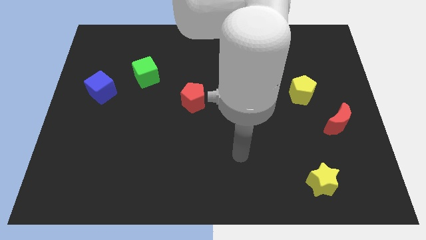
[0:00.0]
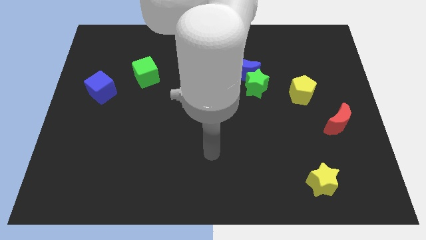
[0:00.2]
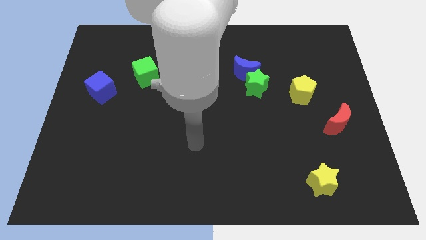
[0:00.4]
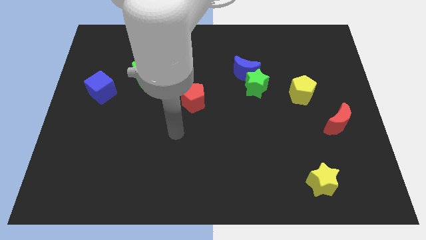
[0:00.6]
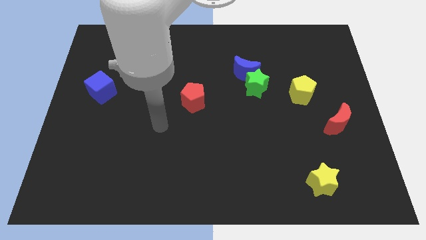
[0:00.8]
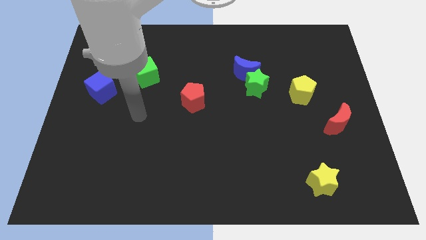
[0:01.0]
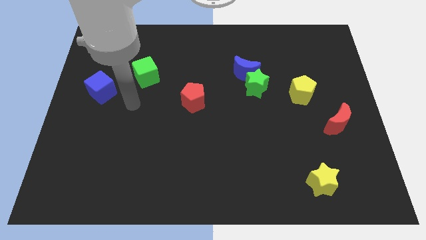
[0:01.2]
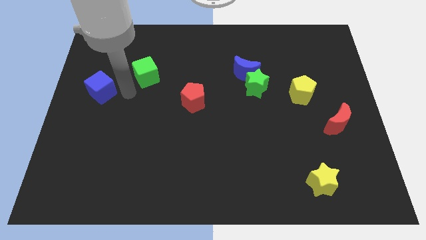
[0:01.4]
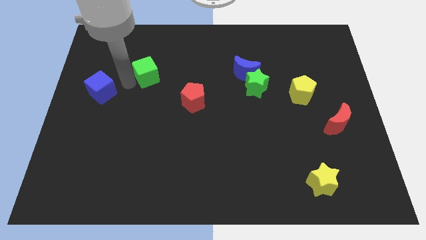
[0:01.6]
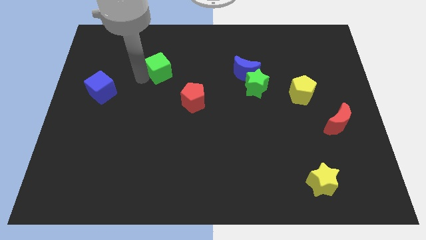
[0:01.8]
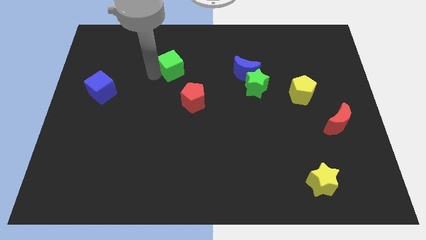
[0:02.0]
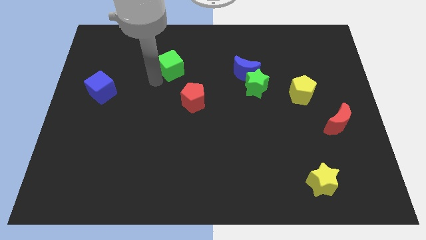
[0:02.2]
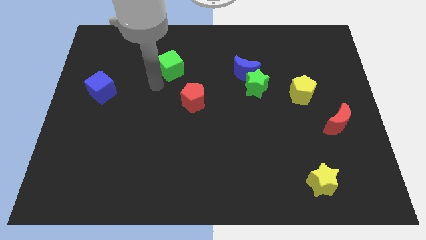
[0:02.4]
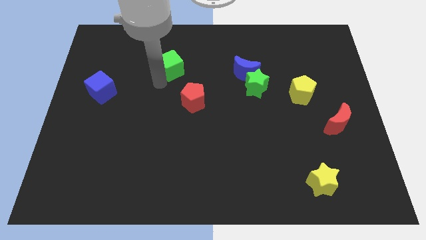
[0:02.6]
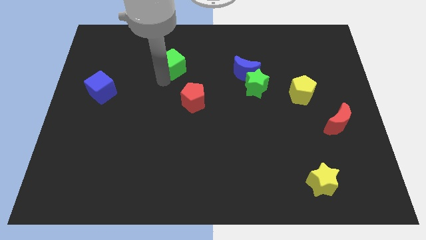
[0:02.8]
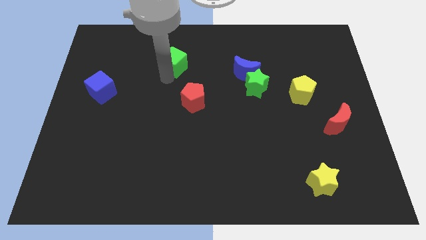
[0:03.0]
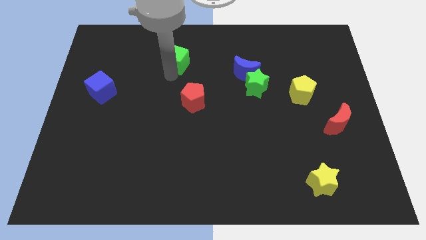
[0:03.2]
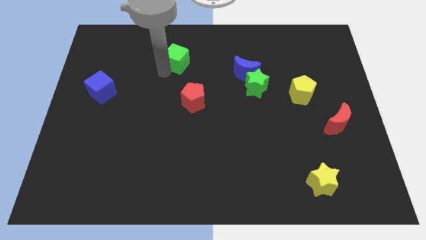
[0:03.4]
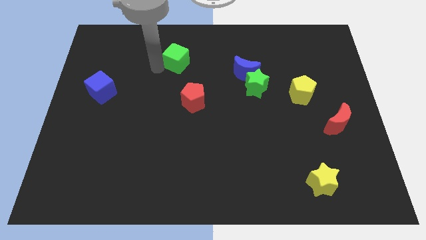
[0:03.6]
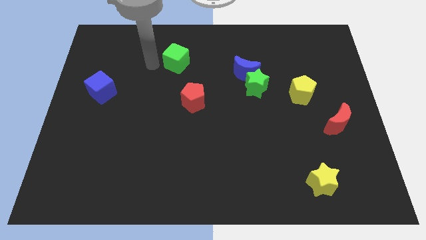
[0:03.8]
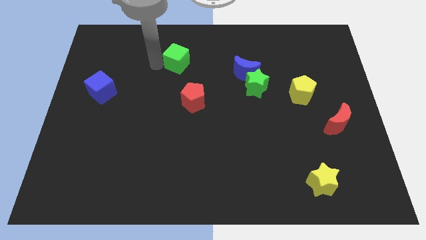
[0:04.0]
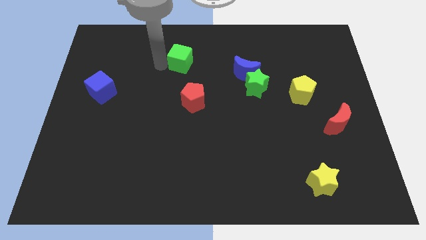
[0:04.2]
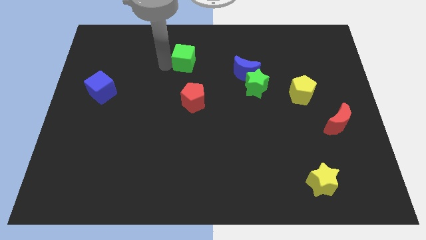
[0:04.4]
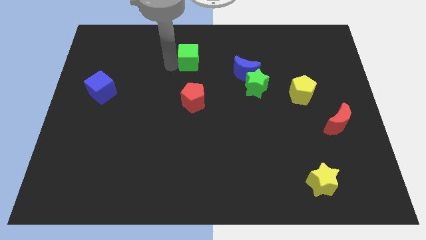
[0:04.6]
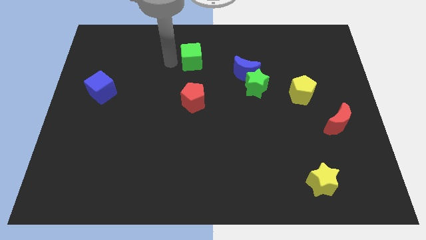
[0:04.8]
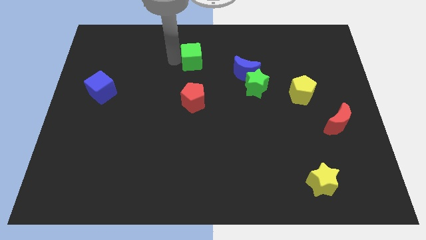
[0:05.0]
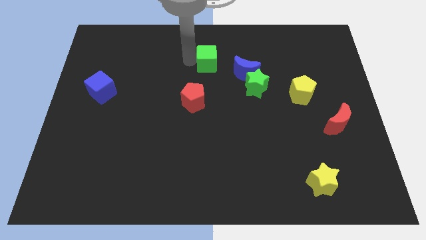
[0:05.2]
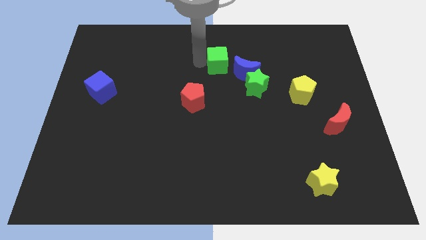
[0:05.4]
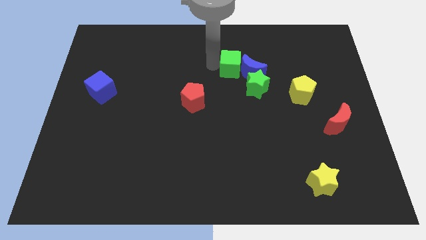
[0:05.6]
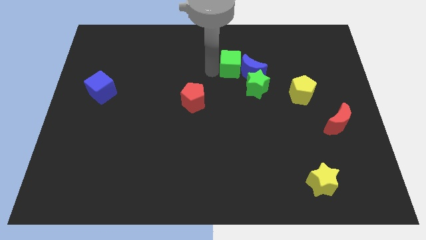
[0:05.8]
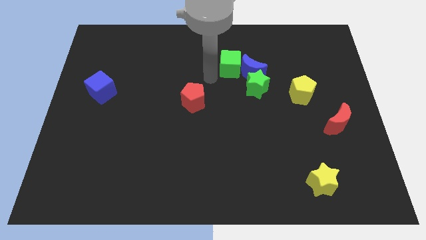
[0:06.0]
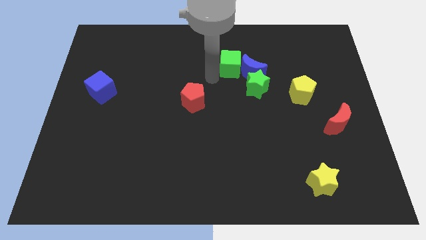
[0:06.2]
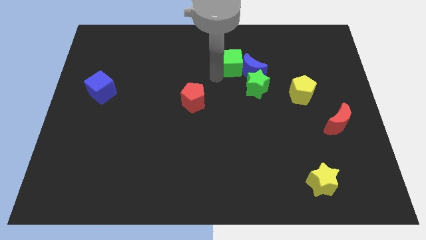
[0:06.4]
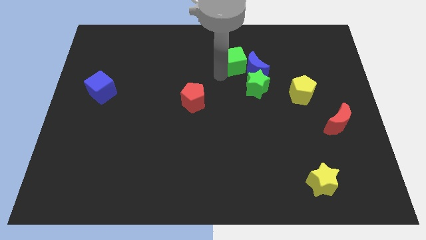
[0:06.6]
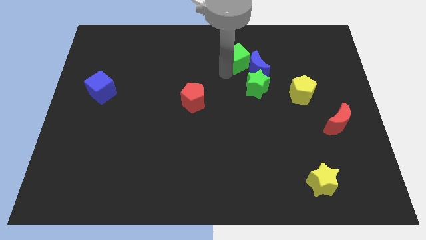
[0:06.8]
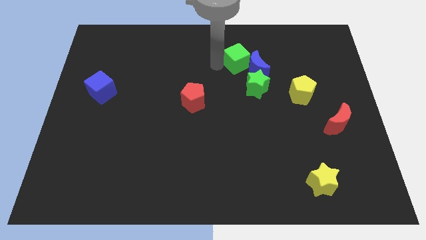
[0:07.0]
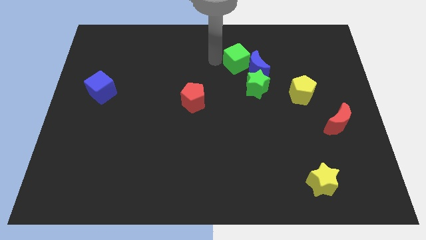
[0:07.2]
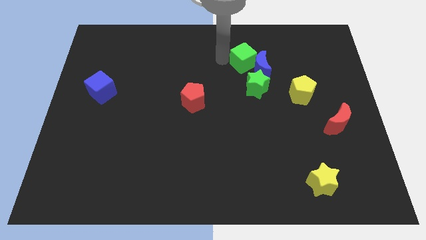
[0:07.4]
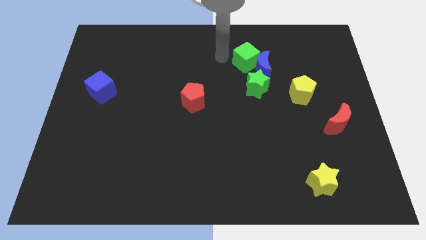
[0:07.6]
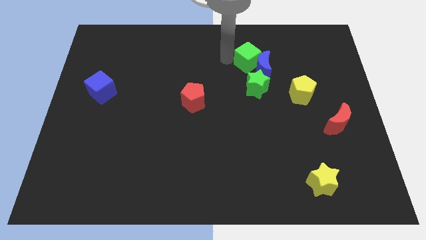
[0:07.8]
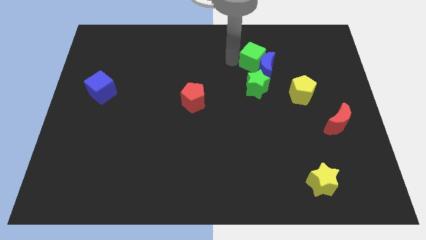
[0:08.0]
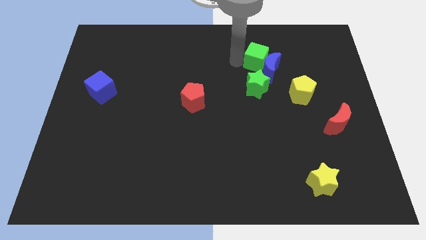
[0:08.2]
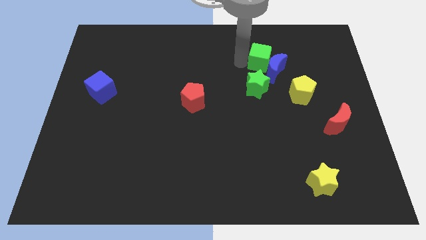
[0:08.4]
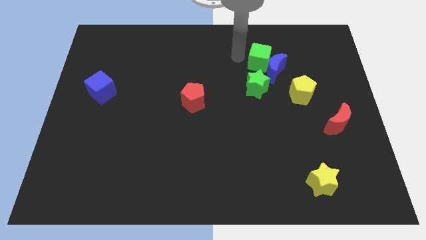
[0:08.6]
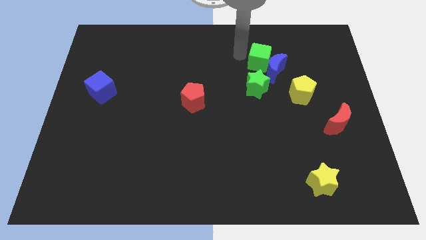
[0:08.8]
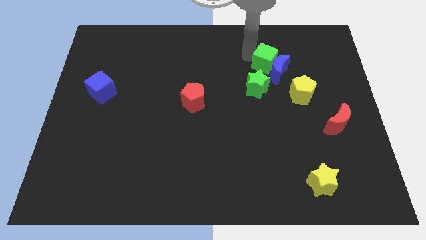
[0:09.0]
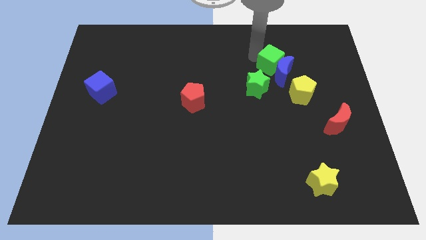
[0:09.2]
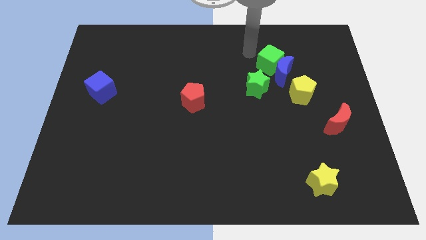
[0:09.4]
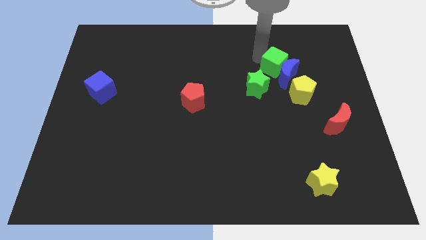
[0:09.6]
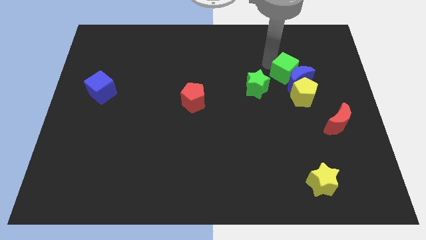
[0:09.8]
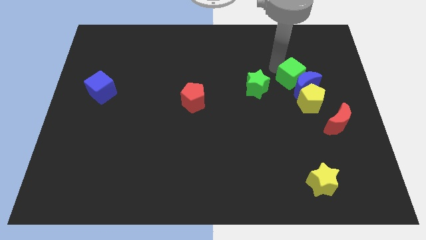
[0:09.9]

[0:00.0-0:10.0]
push the green cube to the right of the green star
